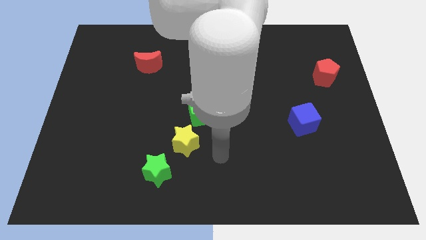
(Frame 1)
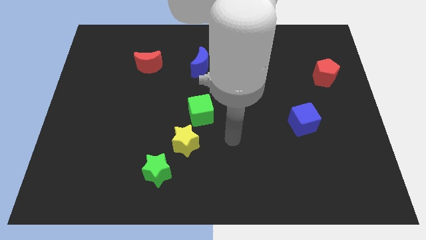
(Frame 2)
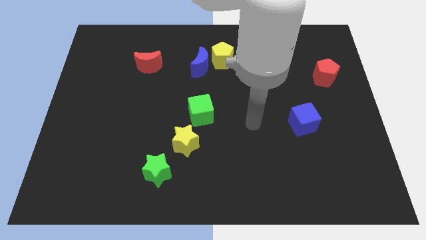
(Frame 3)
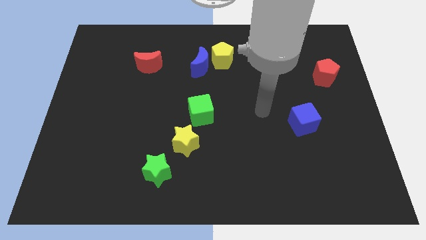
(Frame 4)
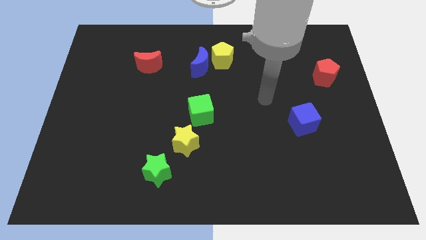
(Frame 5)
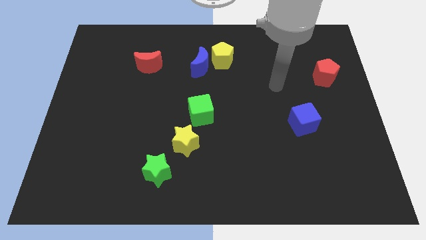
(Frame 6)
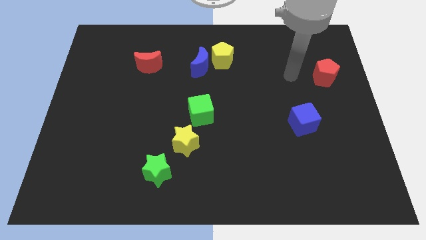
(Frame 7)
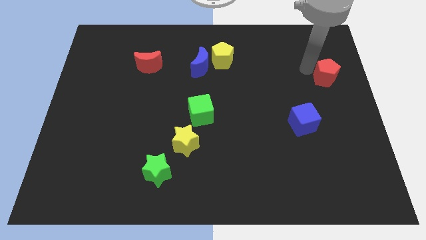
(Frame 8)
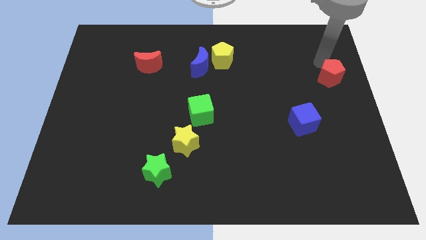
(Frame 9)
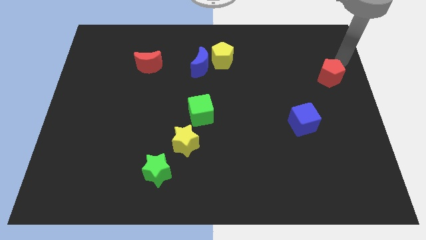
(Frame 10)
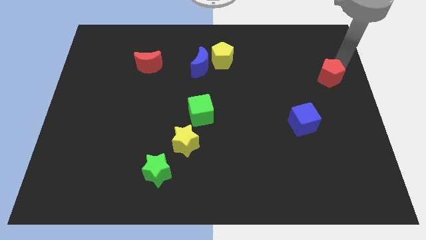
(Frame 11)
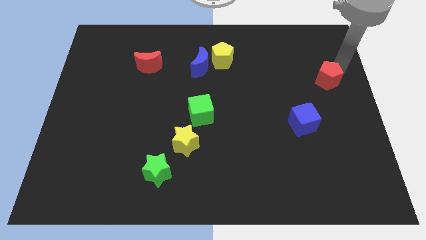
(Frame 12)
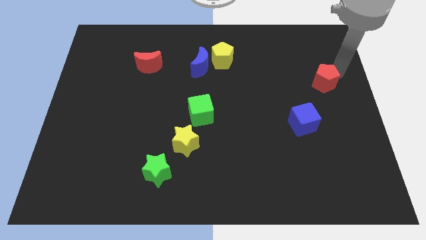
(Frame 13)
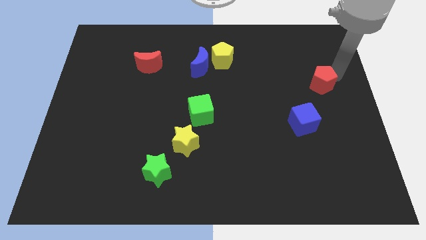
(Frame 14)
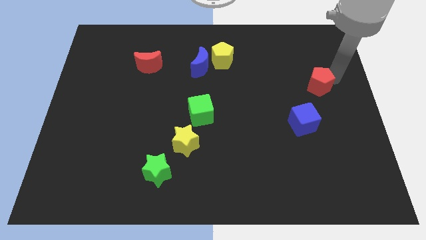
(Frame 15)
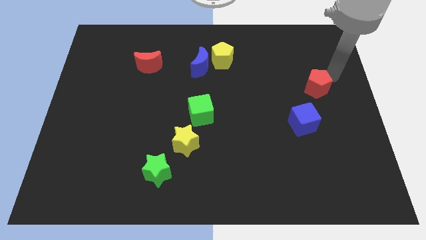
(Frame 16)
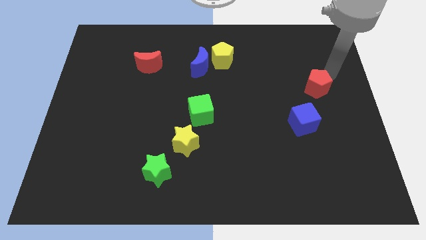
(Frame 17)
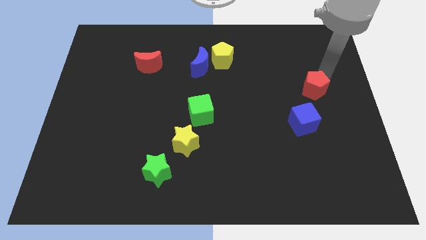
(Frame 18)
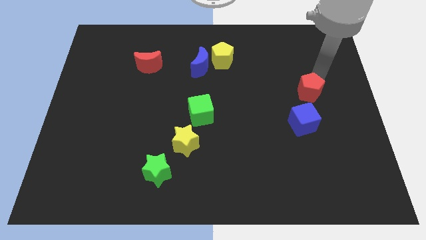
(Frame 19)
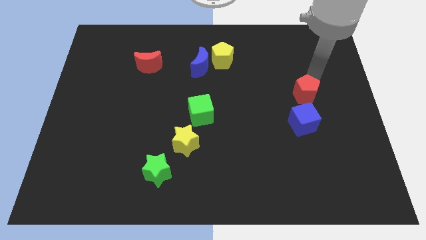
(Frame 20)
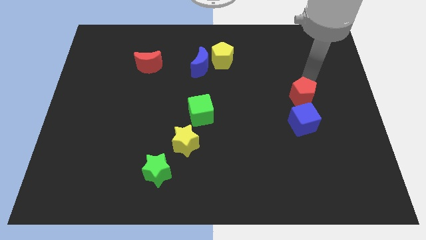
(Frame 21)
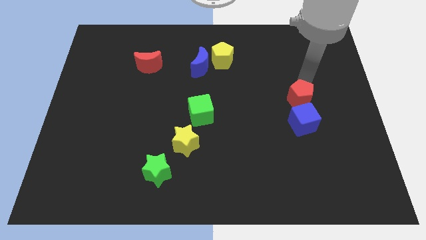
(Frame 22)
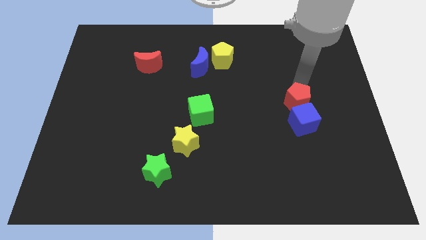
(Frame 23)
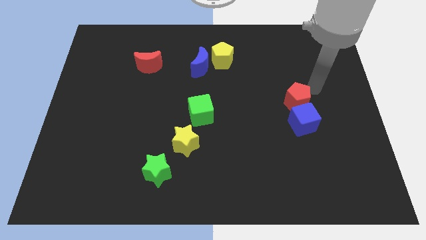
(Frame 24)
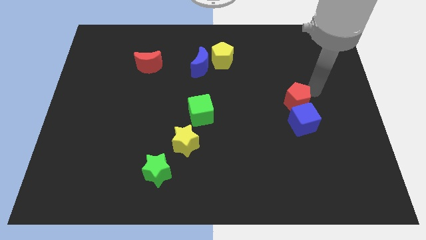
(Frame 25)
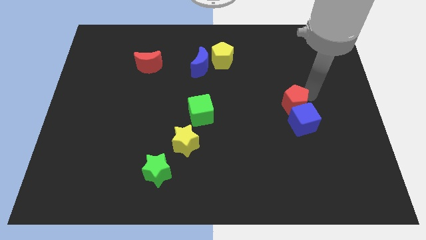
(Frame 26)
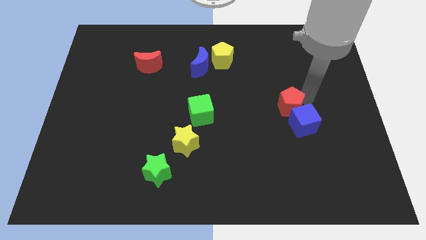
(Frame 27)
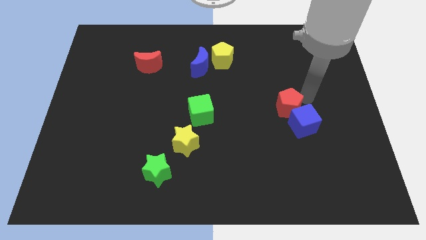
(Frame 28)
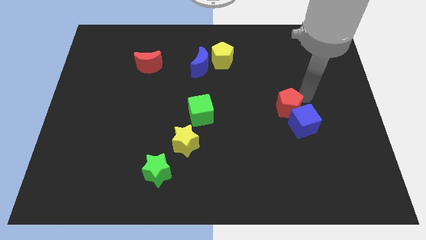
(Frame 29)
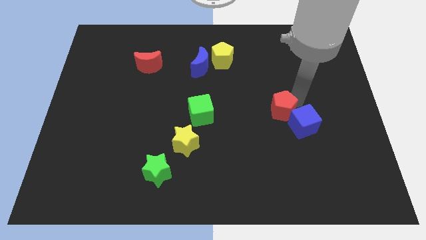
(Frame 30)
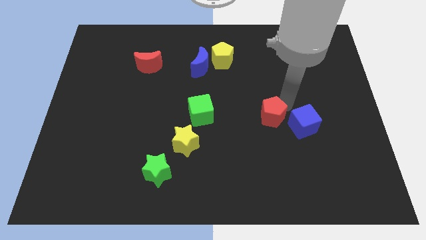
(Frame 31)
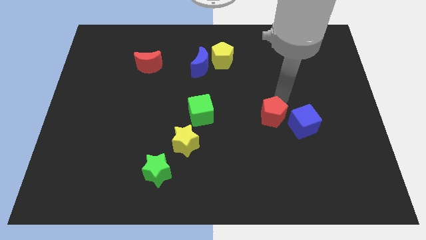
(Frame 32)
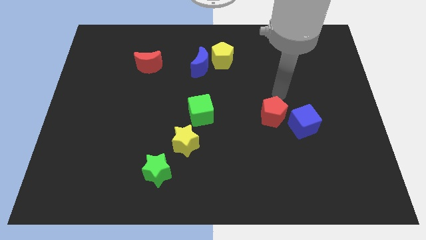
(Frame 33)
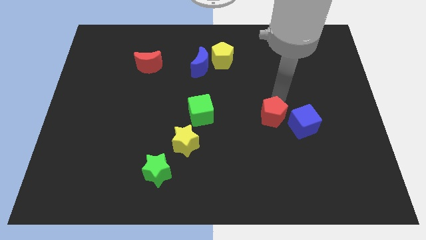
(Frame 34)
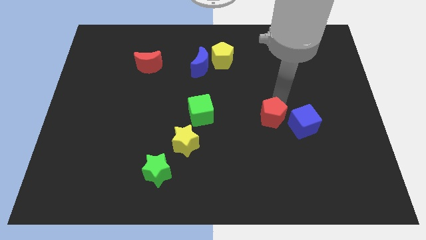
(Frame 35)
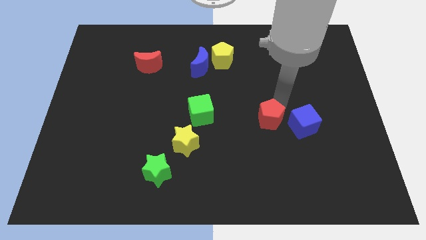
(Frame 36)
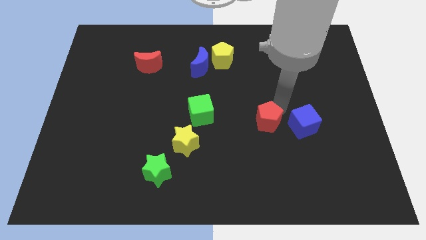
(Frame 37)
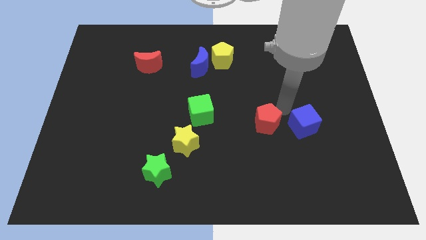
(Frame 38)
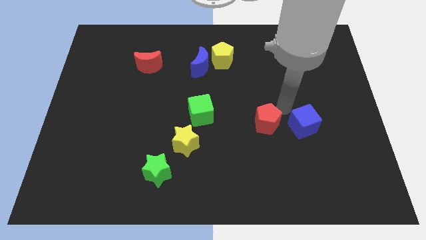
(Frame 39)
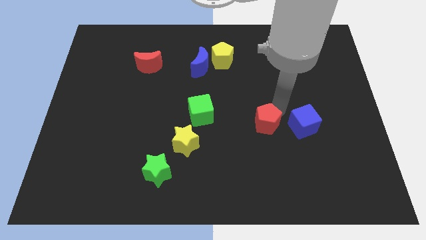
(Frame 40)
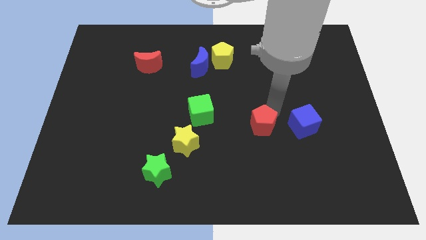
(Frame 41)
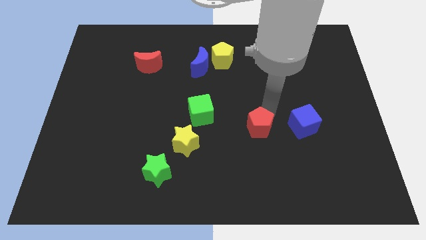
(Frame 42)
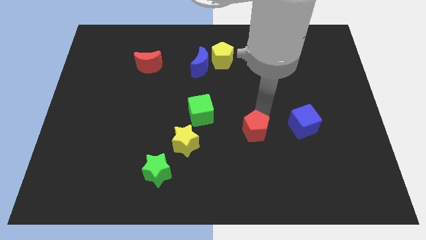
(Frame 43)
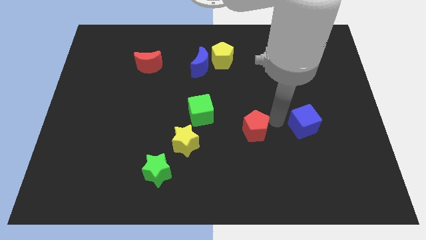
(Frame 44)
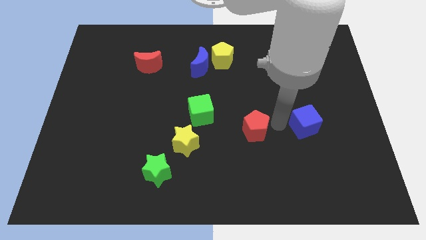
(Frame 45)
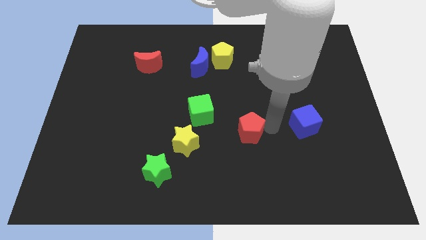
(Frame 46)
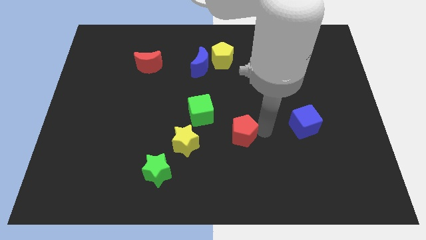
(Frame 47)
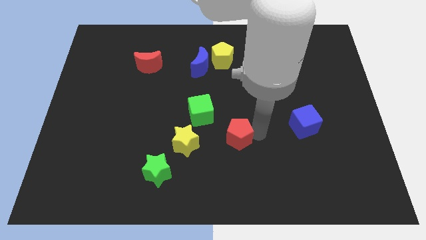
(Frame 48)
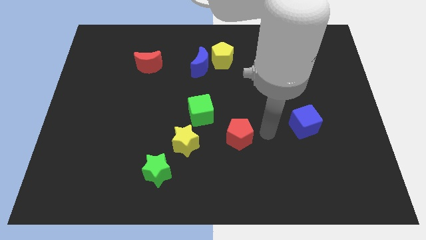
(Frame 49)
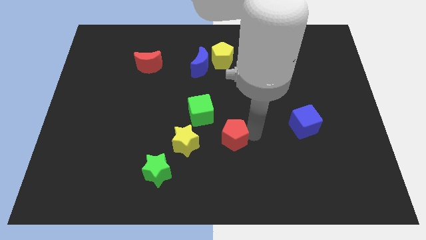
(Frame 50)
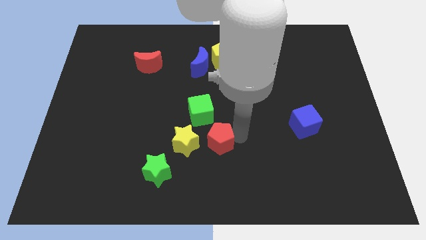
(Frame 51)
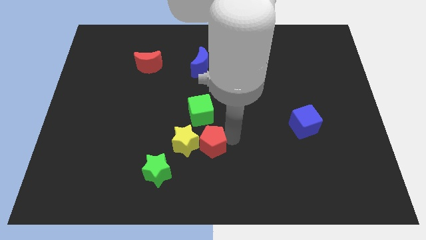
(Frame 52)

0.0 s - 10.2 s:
move the red pentagon close to the yellow star

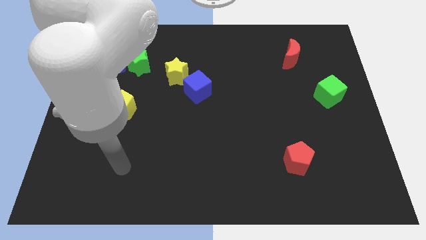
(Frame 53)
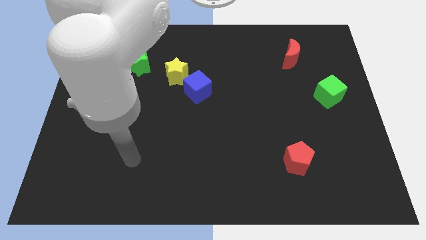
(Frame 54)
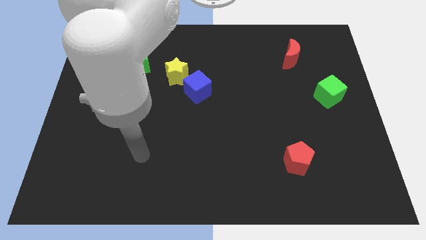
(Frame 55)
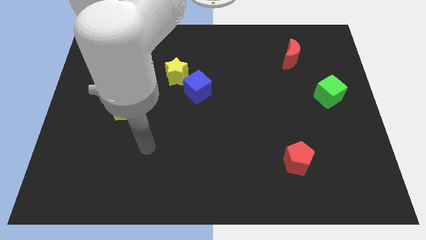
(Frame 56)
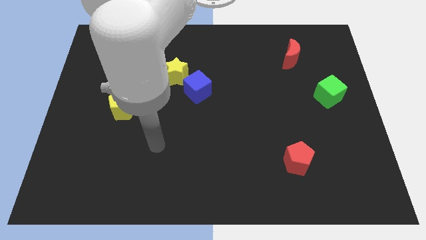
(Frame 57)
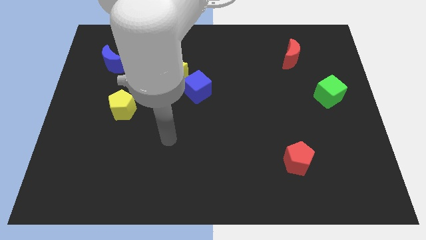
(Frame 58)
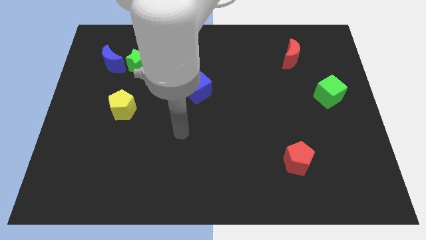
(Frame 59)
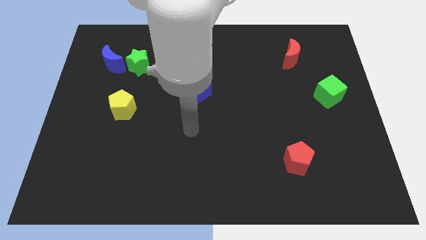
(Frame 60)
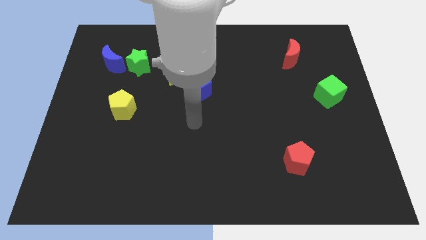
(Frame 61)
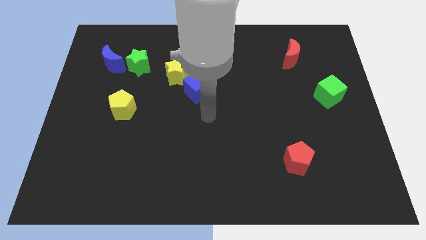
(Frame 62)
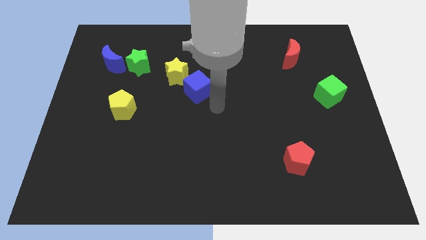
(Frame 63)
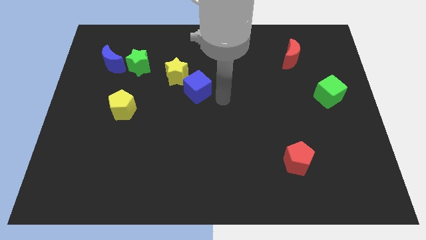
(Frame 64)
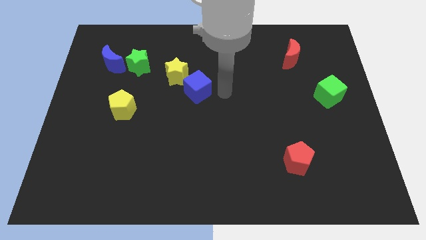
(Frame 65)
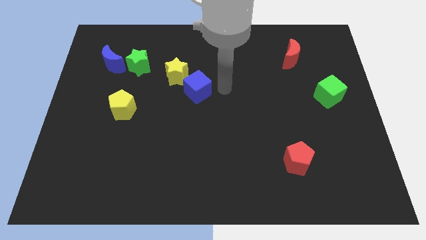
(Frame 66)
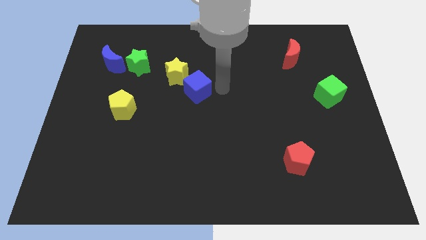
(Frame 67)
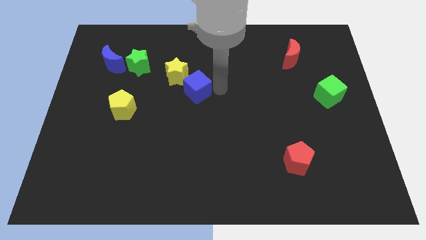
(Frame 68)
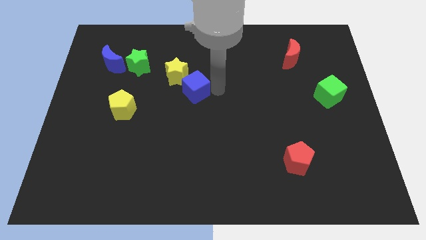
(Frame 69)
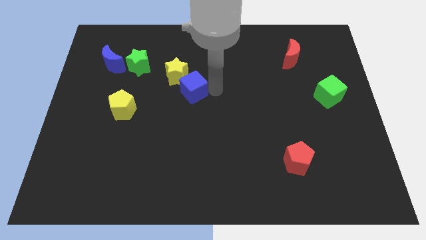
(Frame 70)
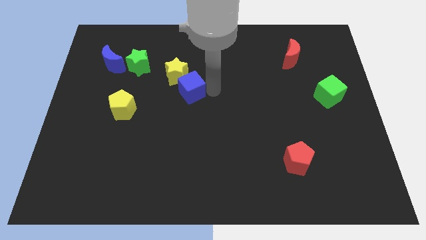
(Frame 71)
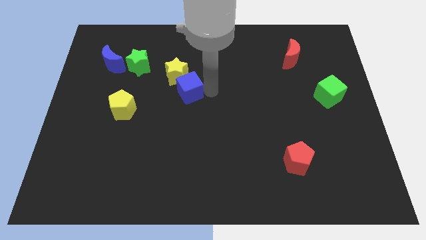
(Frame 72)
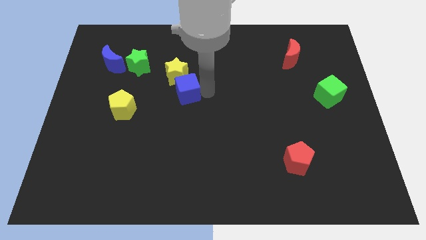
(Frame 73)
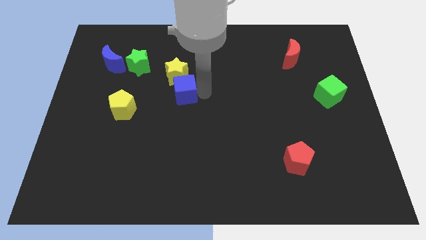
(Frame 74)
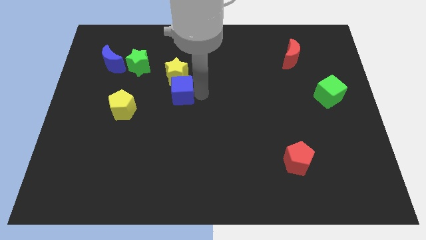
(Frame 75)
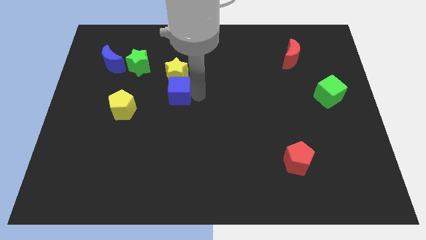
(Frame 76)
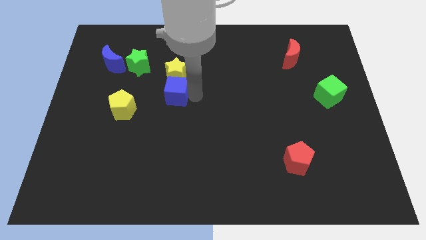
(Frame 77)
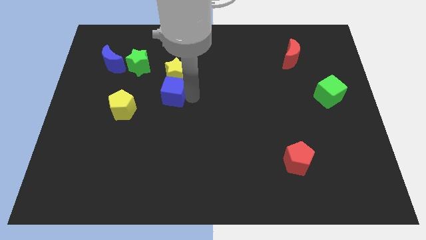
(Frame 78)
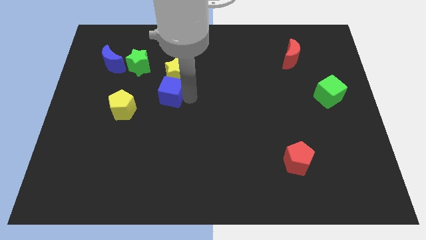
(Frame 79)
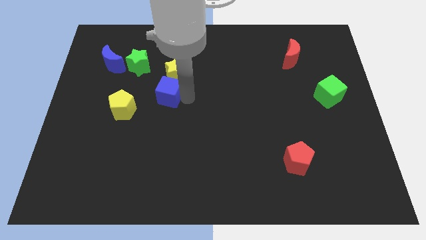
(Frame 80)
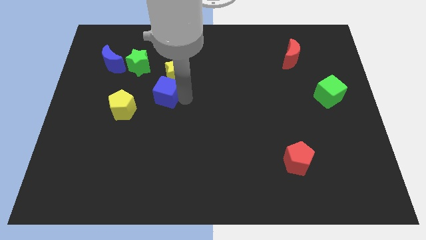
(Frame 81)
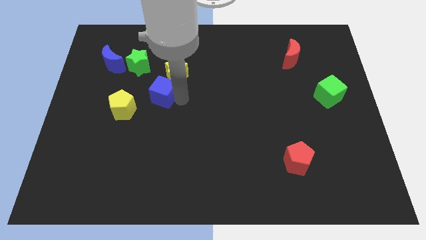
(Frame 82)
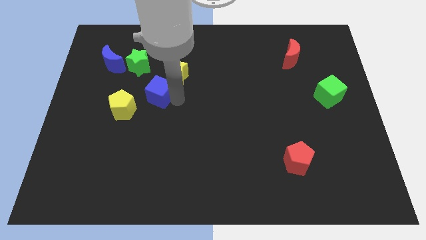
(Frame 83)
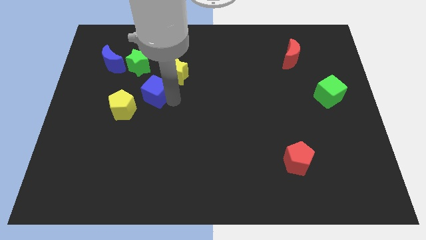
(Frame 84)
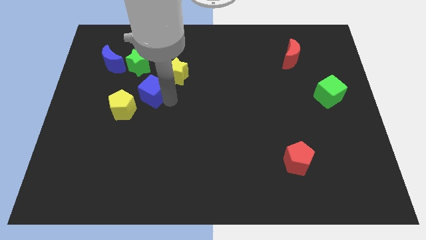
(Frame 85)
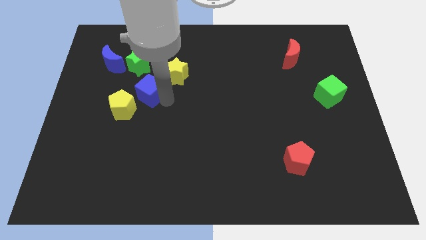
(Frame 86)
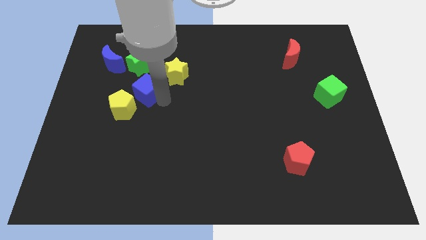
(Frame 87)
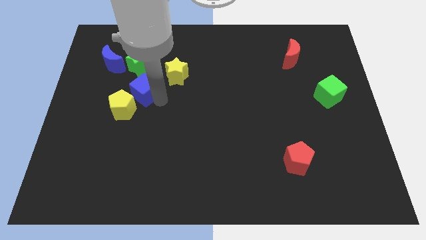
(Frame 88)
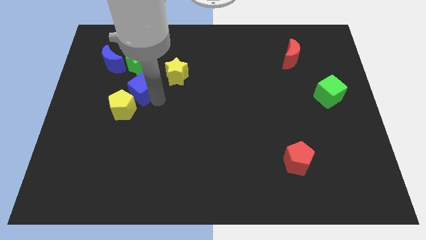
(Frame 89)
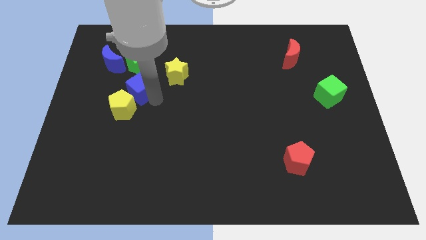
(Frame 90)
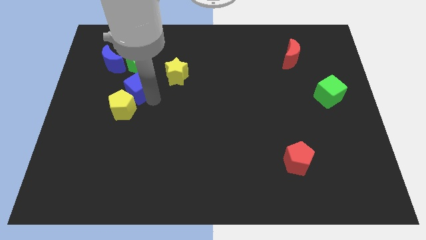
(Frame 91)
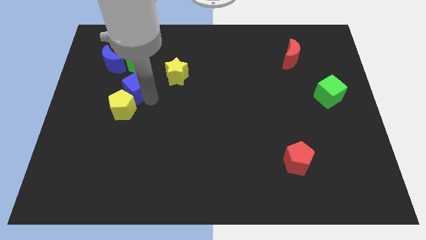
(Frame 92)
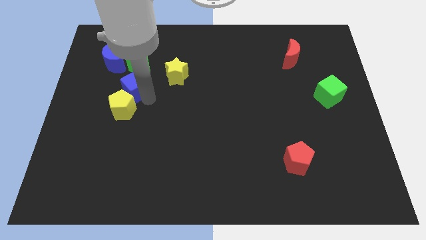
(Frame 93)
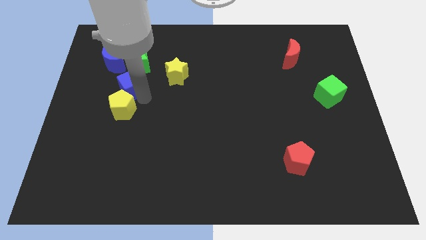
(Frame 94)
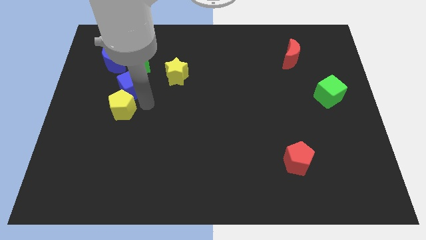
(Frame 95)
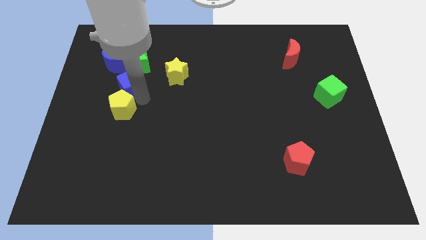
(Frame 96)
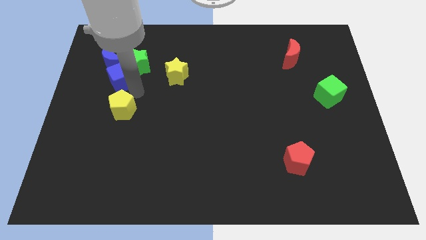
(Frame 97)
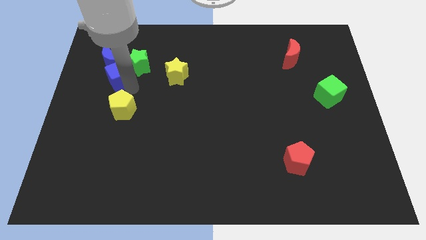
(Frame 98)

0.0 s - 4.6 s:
push the blue cube next to the blue moon
